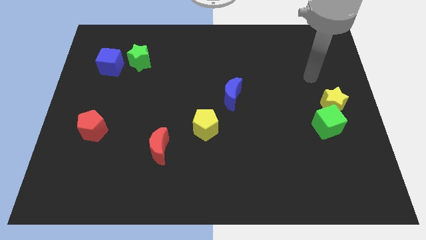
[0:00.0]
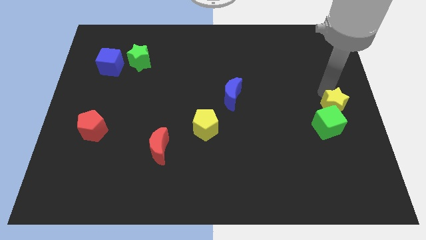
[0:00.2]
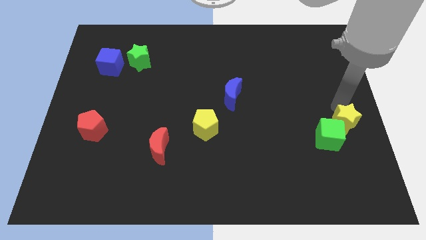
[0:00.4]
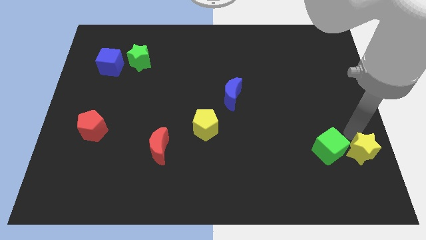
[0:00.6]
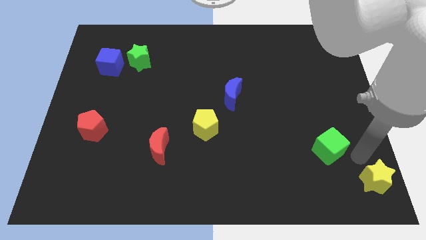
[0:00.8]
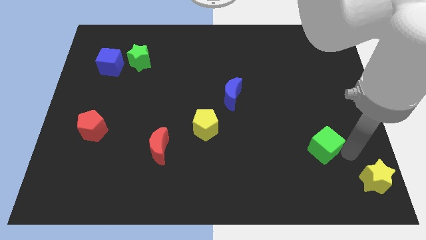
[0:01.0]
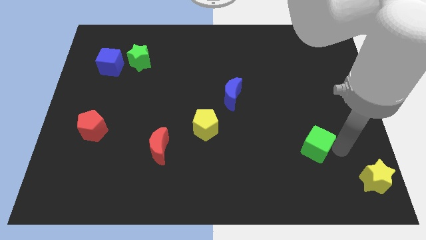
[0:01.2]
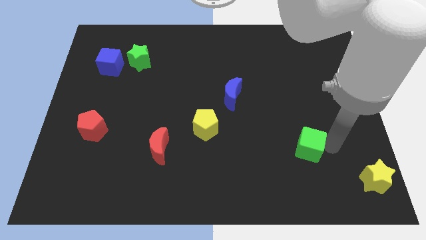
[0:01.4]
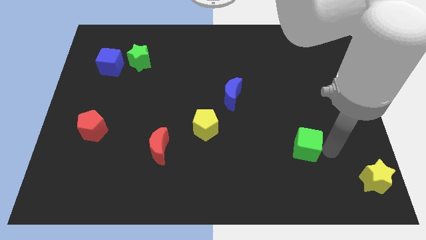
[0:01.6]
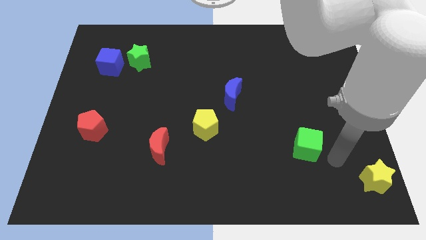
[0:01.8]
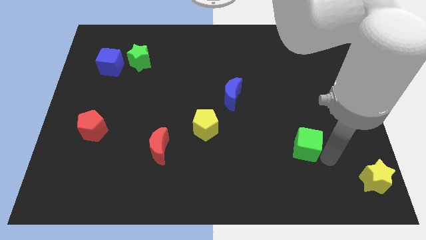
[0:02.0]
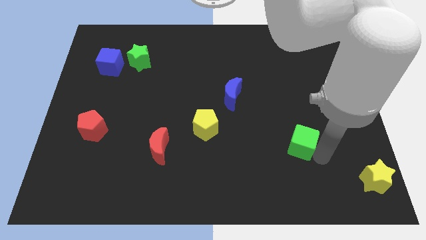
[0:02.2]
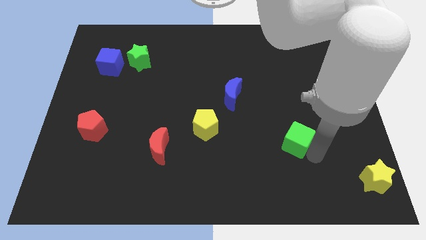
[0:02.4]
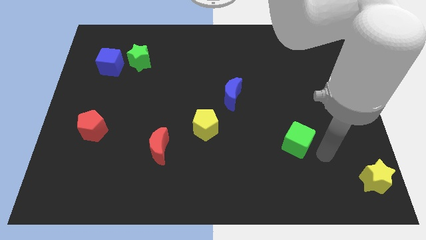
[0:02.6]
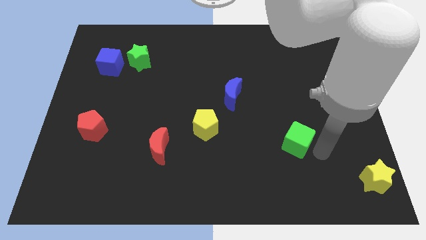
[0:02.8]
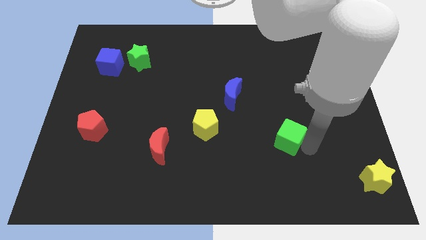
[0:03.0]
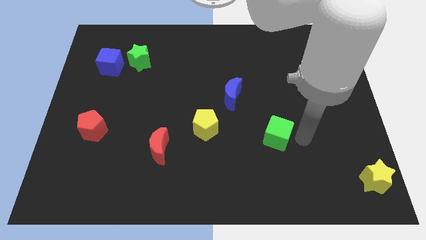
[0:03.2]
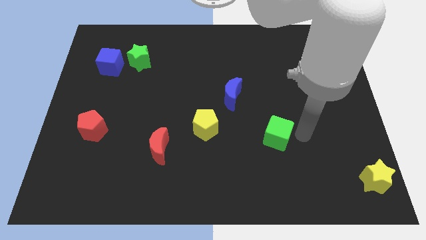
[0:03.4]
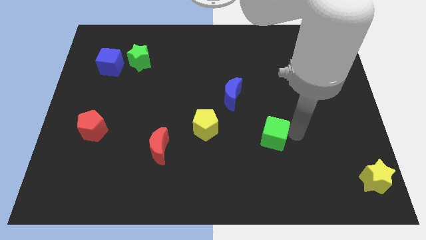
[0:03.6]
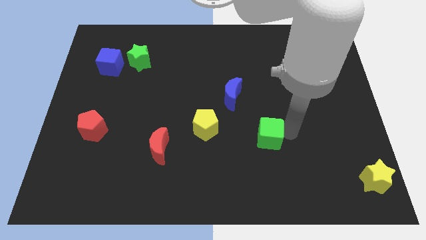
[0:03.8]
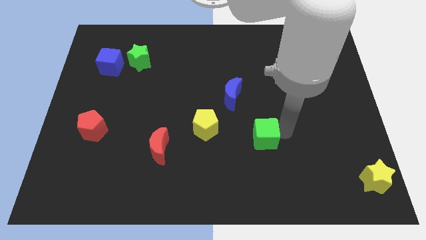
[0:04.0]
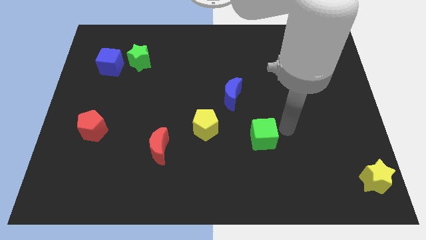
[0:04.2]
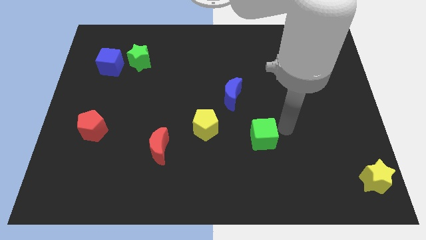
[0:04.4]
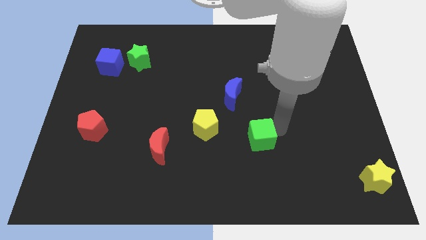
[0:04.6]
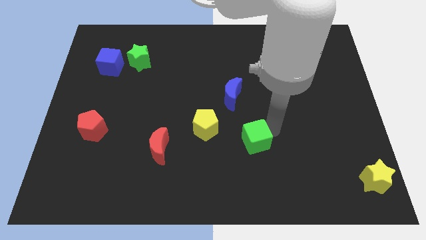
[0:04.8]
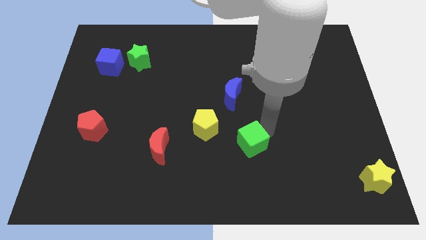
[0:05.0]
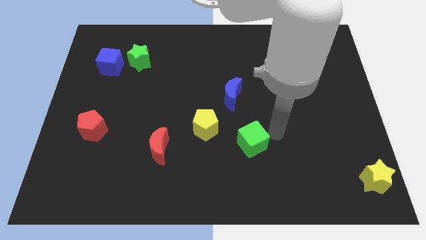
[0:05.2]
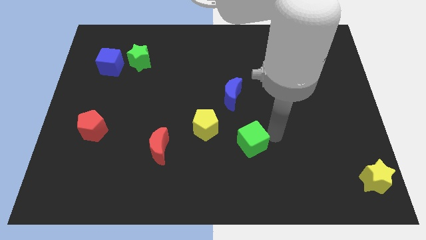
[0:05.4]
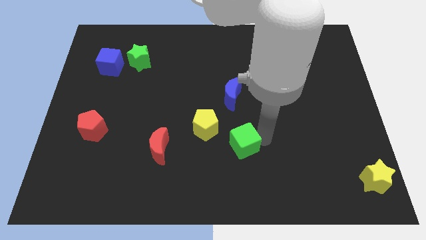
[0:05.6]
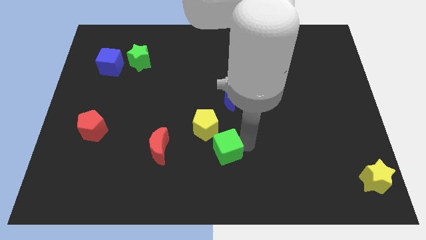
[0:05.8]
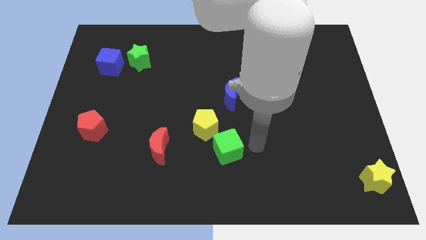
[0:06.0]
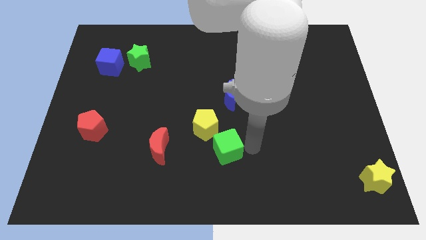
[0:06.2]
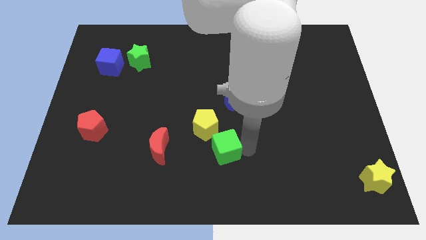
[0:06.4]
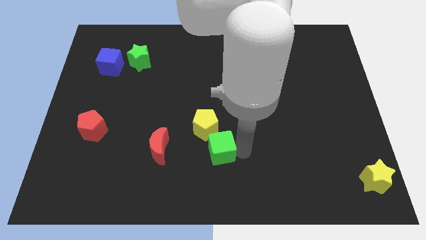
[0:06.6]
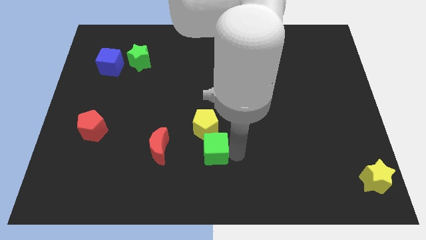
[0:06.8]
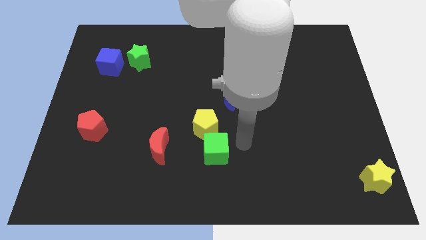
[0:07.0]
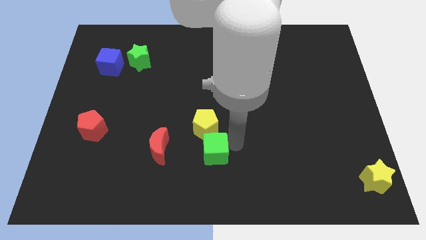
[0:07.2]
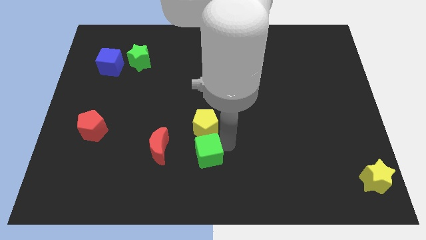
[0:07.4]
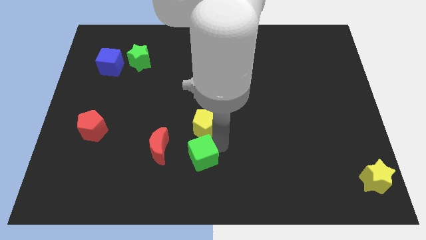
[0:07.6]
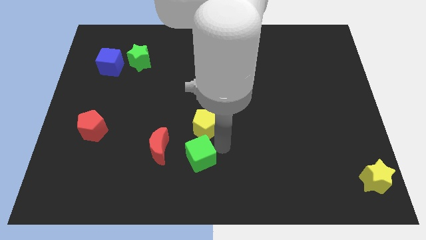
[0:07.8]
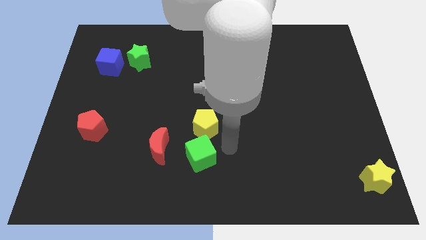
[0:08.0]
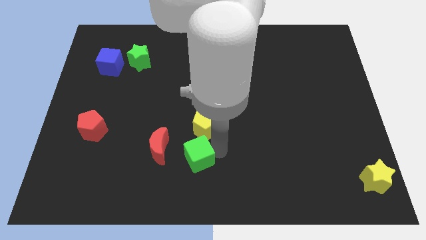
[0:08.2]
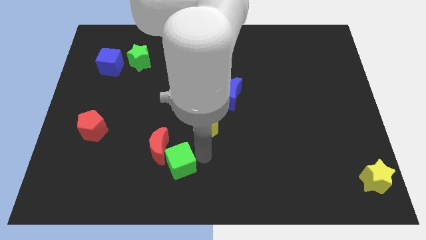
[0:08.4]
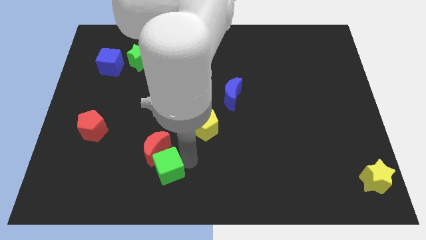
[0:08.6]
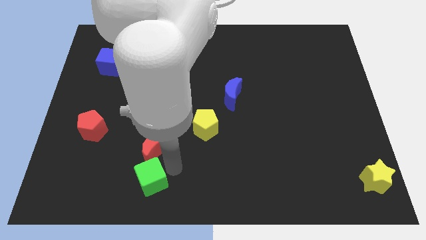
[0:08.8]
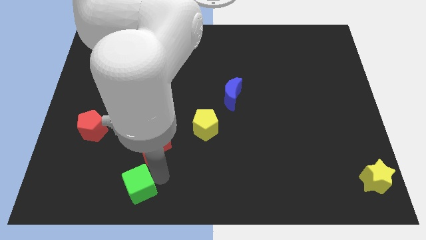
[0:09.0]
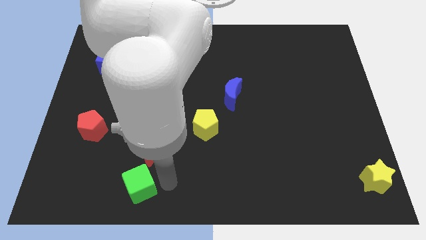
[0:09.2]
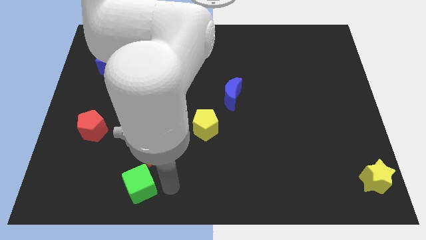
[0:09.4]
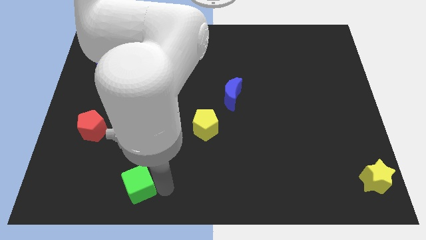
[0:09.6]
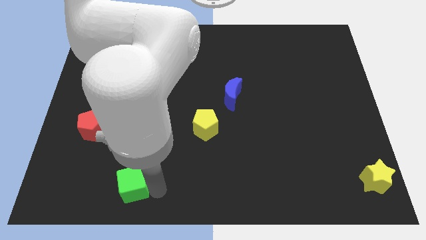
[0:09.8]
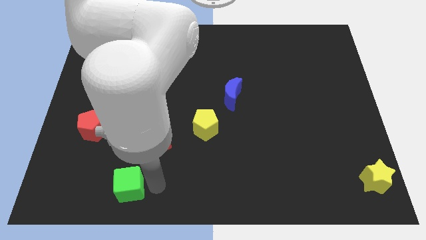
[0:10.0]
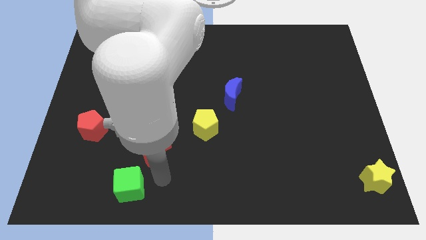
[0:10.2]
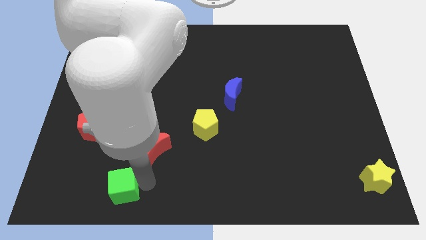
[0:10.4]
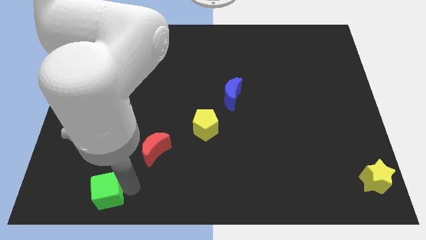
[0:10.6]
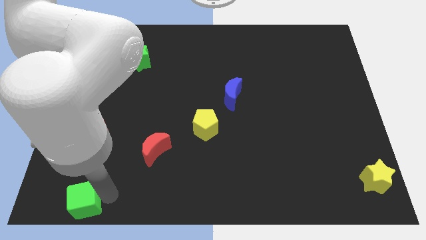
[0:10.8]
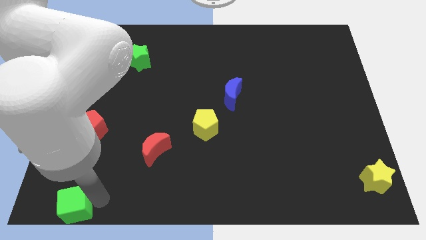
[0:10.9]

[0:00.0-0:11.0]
put the green cube to the bottom left of the board
